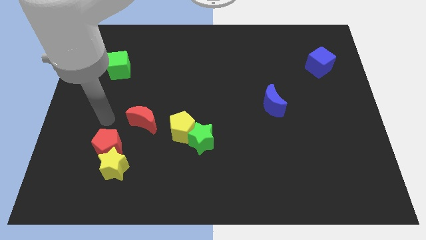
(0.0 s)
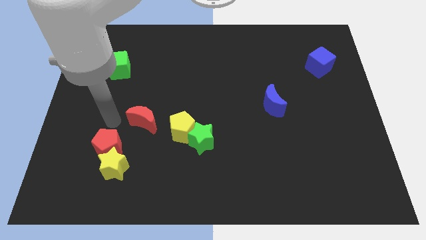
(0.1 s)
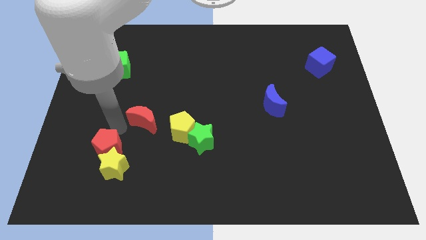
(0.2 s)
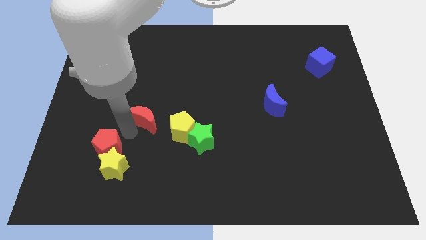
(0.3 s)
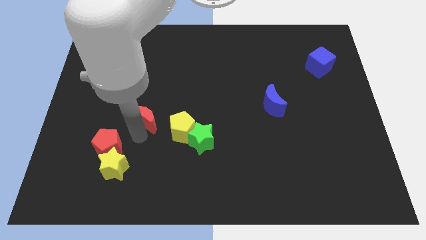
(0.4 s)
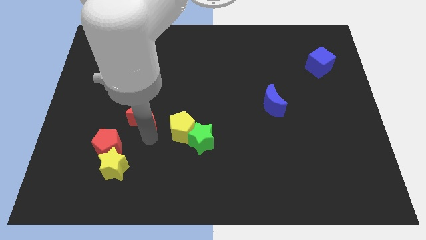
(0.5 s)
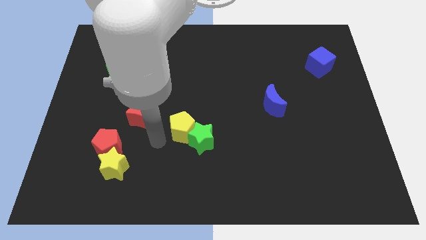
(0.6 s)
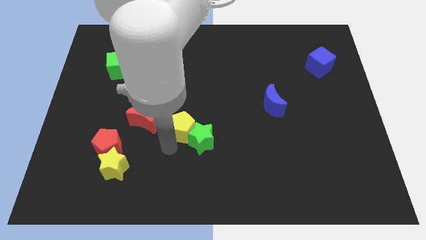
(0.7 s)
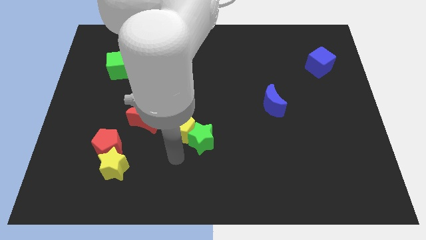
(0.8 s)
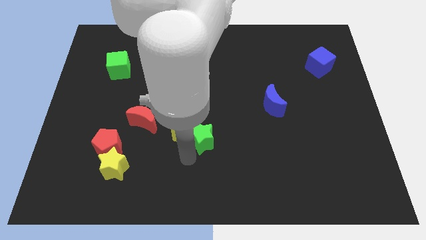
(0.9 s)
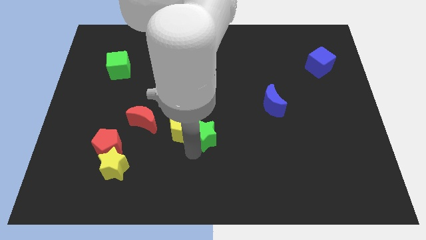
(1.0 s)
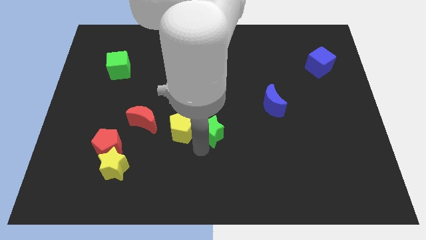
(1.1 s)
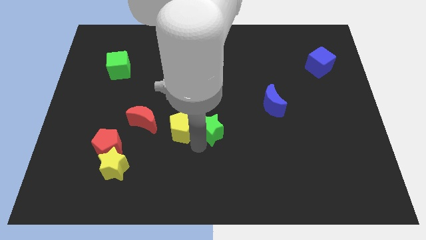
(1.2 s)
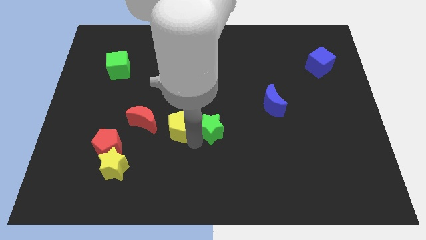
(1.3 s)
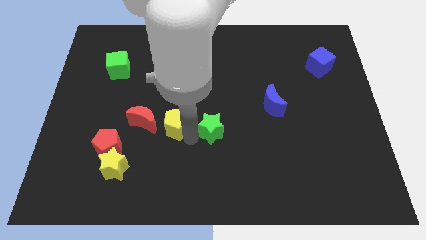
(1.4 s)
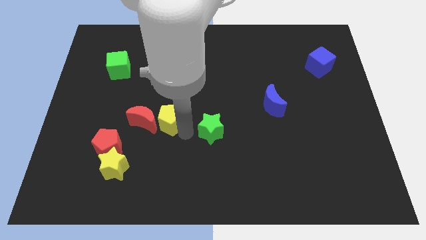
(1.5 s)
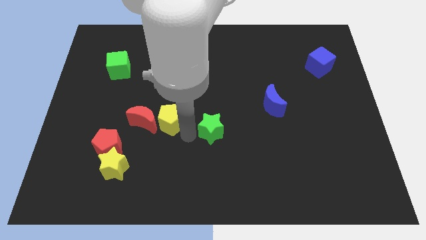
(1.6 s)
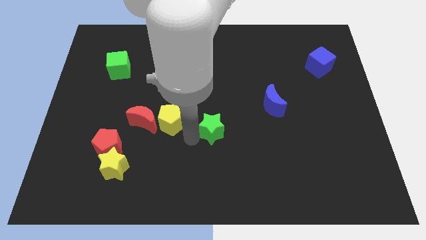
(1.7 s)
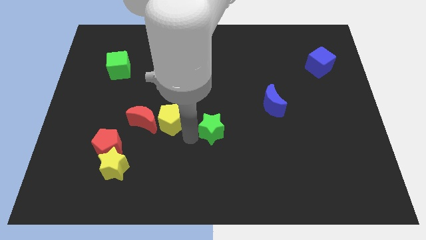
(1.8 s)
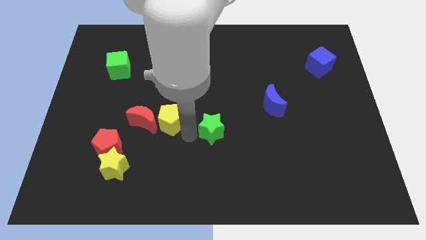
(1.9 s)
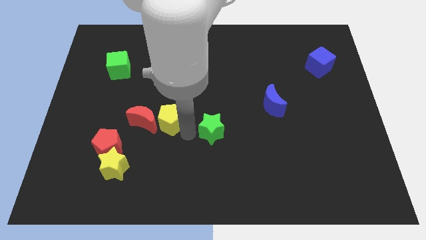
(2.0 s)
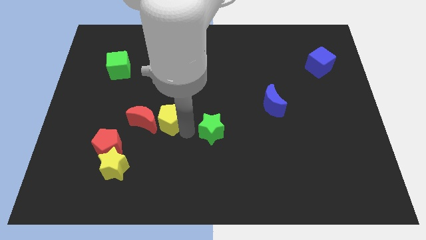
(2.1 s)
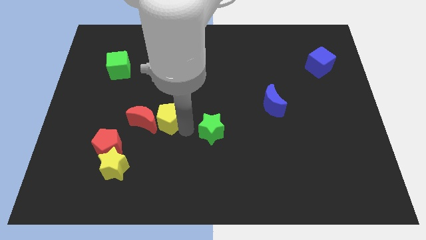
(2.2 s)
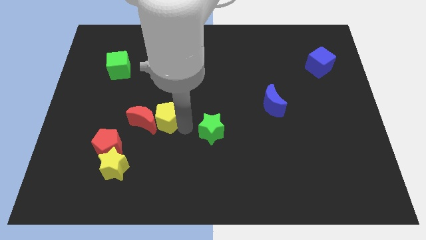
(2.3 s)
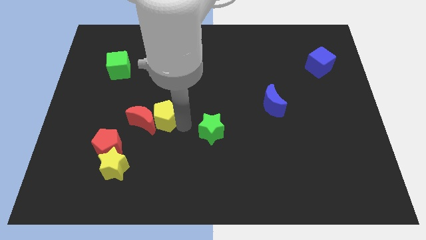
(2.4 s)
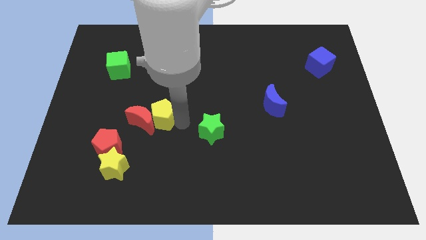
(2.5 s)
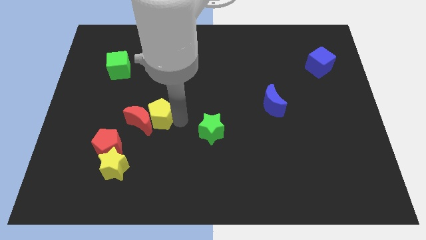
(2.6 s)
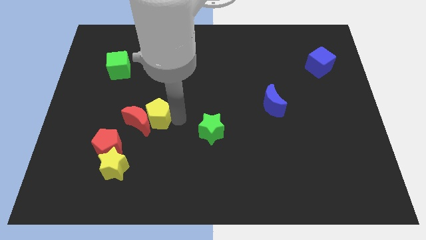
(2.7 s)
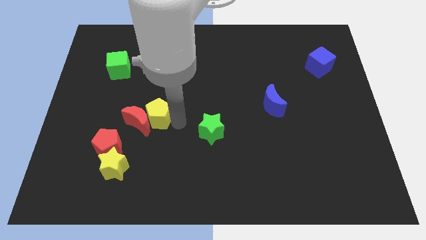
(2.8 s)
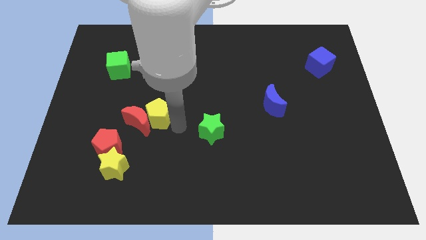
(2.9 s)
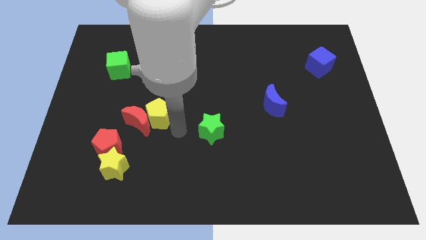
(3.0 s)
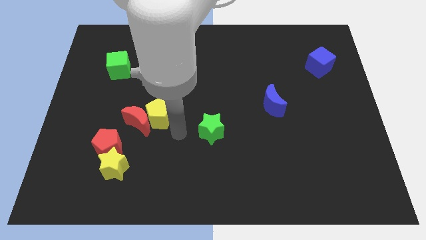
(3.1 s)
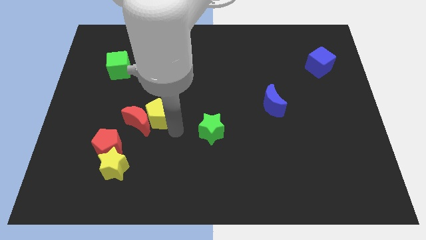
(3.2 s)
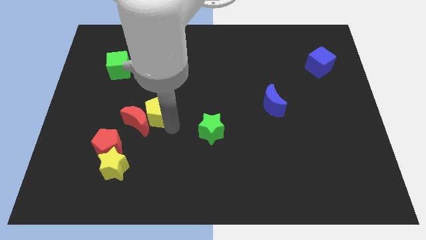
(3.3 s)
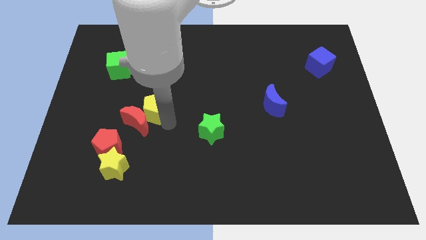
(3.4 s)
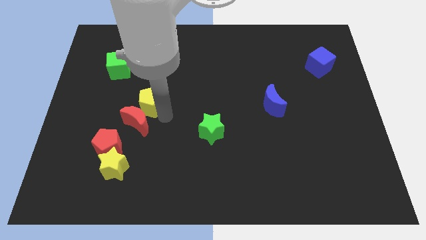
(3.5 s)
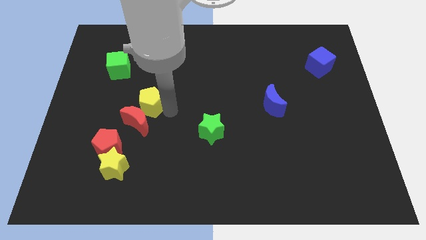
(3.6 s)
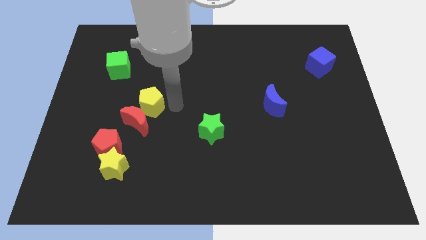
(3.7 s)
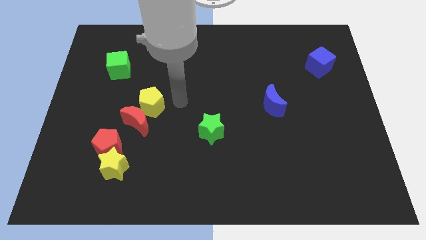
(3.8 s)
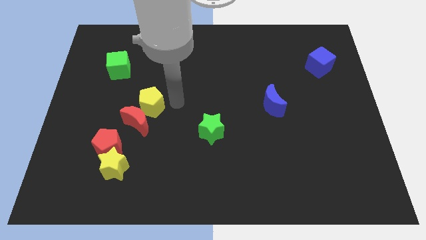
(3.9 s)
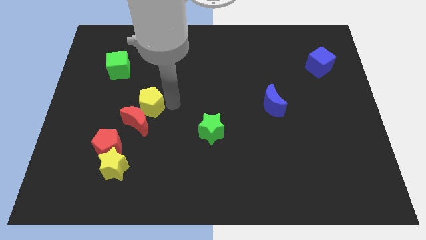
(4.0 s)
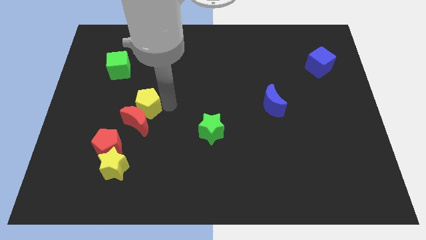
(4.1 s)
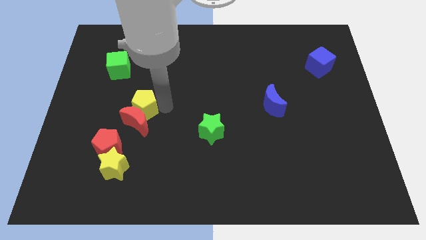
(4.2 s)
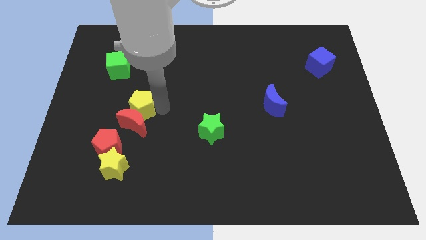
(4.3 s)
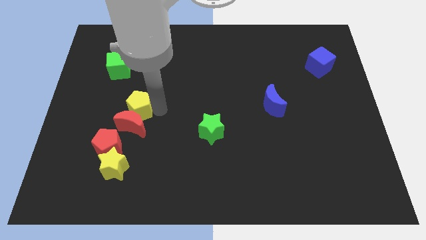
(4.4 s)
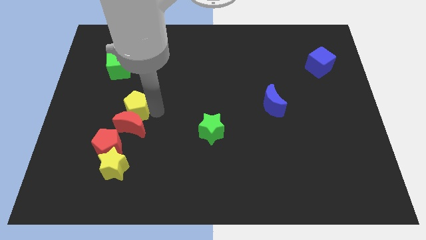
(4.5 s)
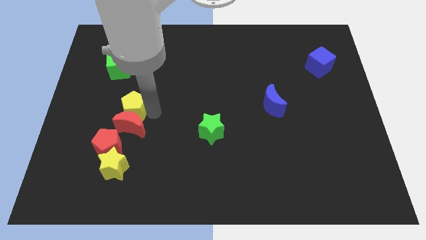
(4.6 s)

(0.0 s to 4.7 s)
put the yellow pentagon above the red pentagon

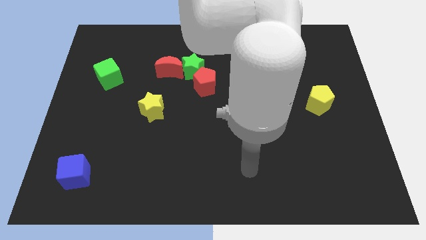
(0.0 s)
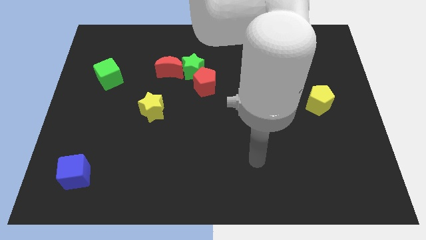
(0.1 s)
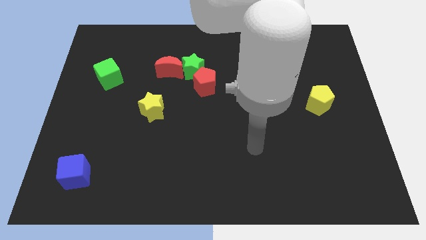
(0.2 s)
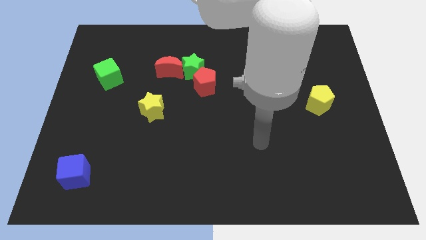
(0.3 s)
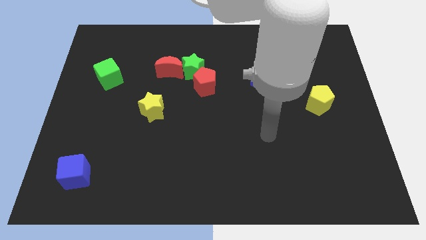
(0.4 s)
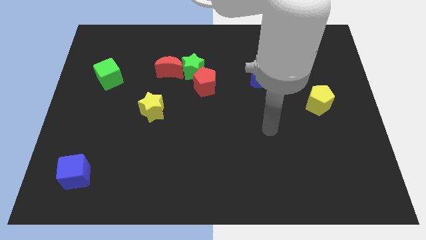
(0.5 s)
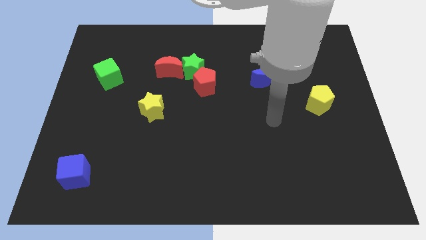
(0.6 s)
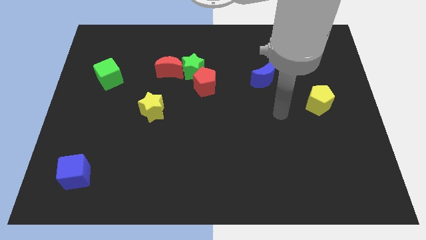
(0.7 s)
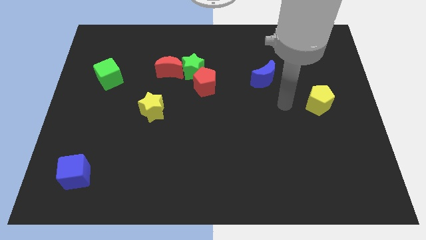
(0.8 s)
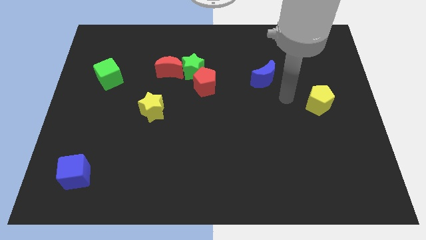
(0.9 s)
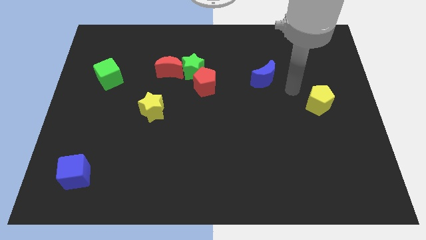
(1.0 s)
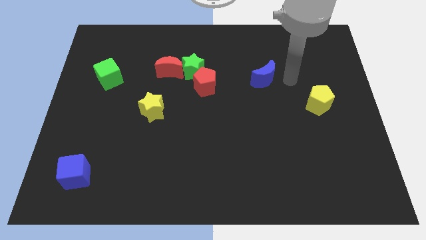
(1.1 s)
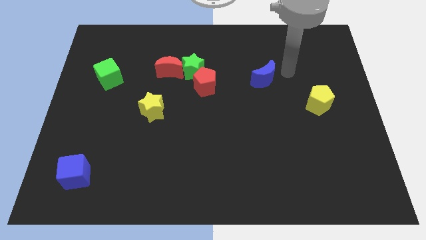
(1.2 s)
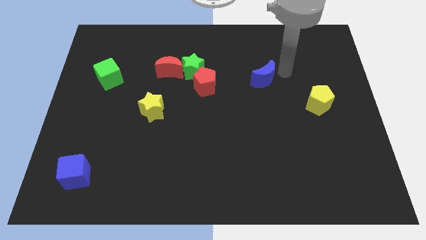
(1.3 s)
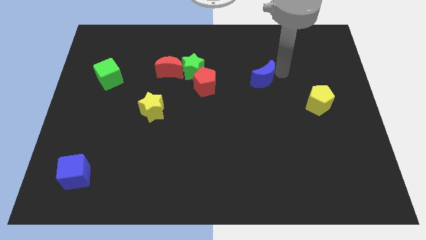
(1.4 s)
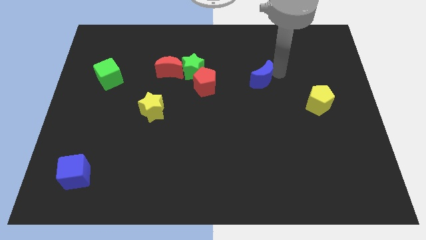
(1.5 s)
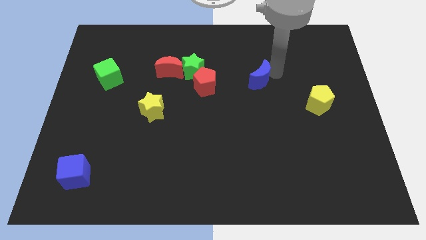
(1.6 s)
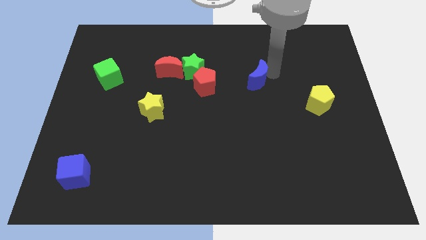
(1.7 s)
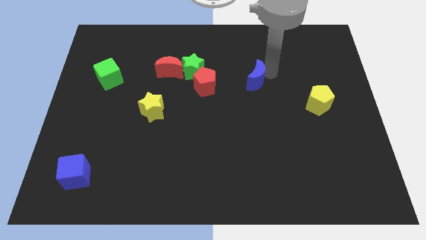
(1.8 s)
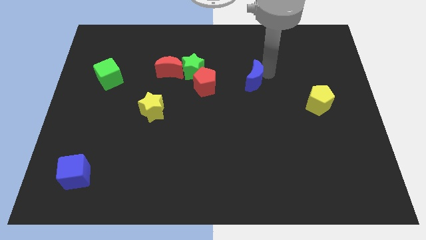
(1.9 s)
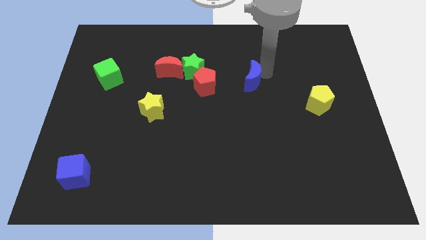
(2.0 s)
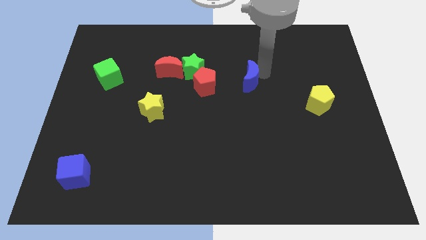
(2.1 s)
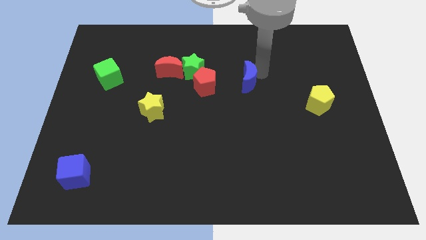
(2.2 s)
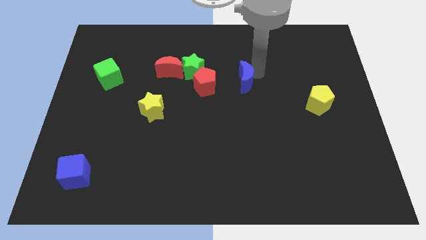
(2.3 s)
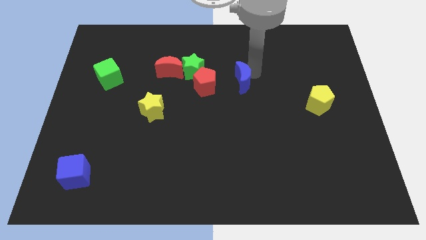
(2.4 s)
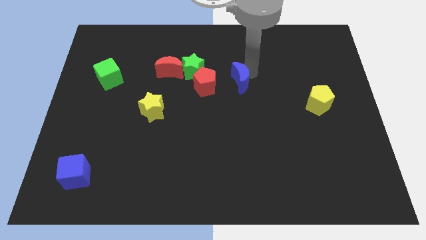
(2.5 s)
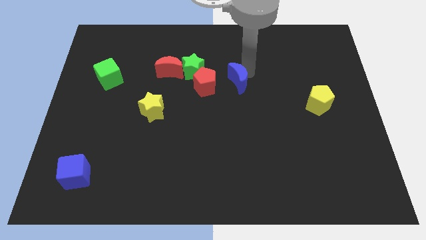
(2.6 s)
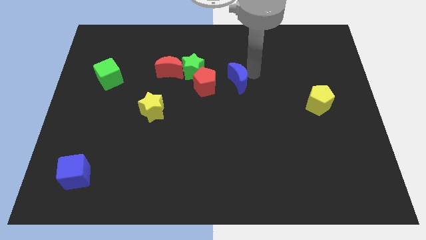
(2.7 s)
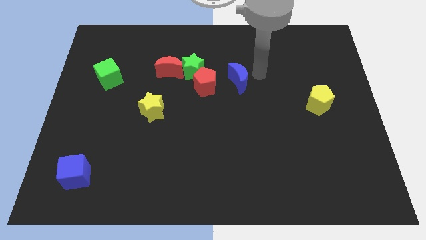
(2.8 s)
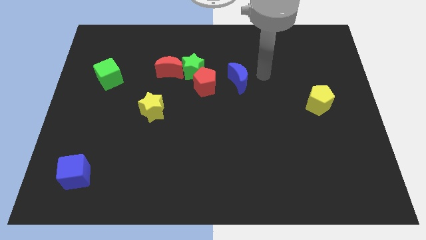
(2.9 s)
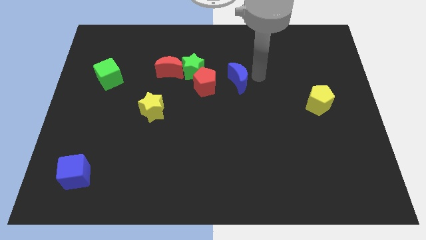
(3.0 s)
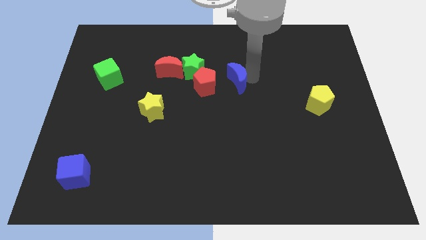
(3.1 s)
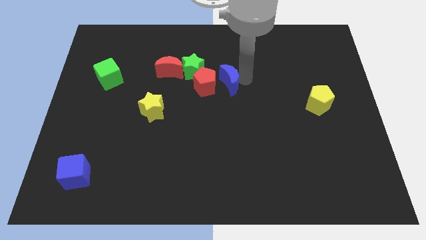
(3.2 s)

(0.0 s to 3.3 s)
move the blue moon diagonally down and to the right of the green star
